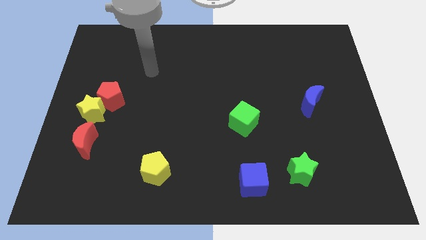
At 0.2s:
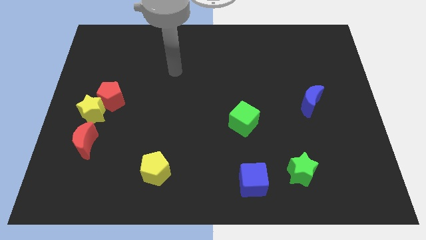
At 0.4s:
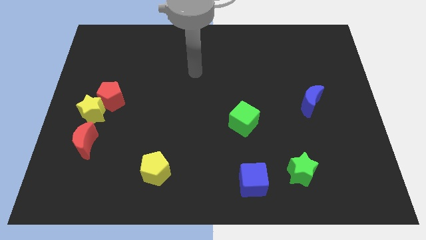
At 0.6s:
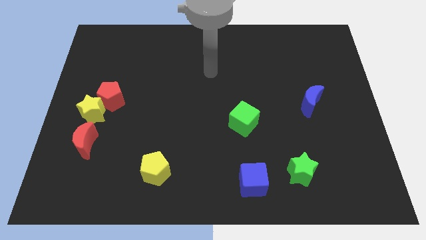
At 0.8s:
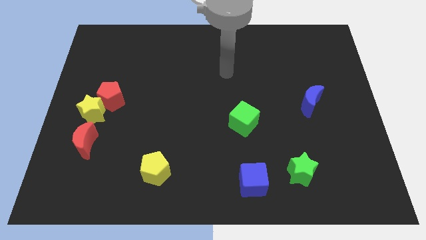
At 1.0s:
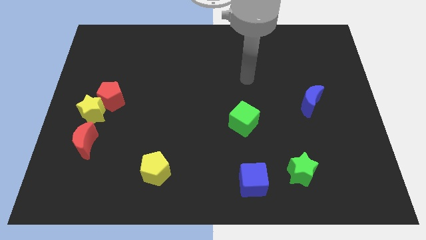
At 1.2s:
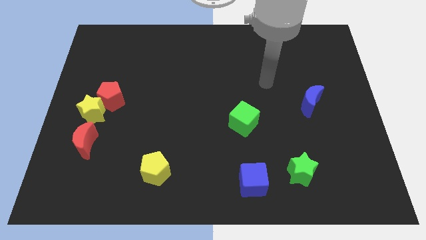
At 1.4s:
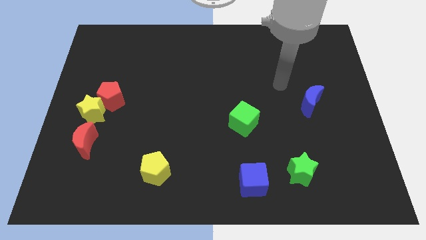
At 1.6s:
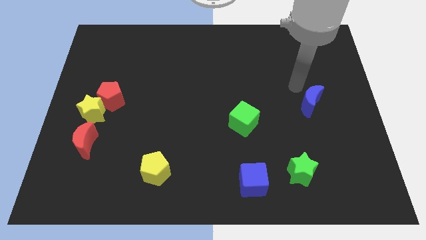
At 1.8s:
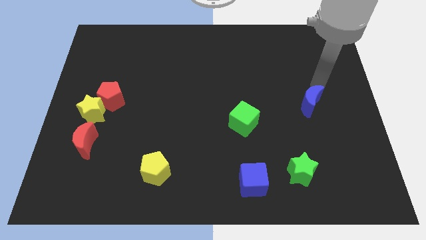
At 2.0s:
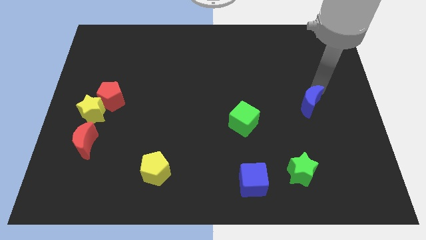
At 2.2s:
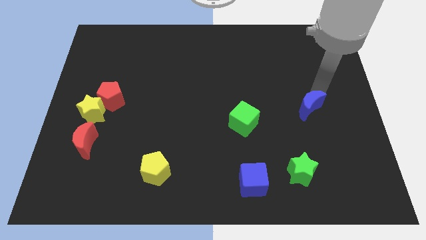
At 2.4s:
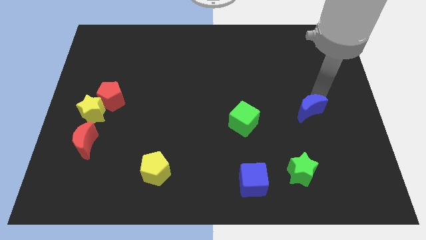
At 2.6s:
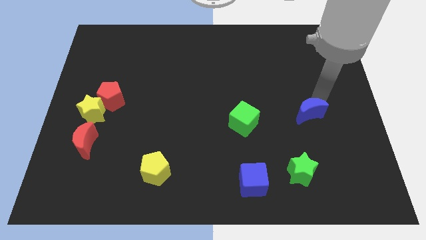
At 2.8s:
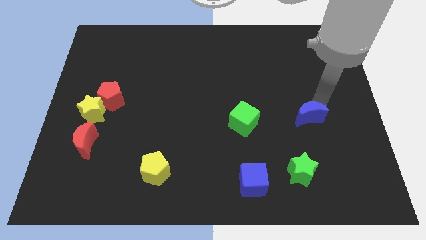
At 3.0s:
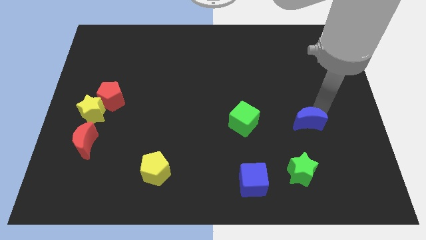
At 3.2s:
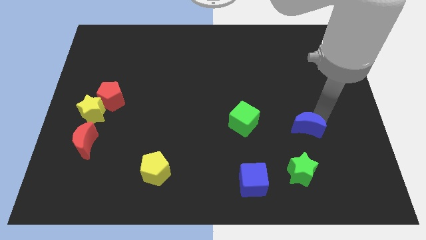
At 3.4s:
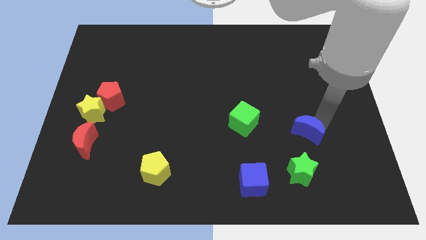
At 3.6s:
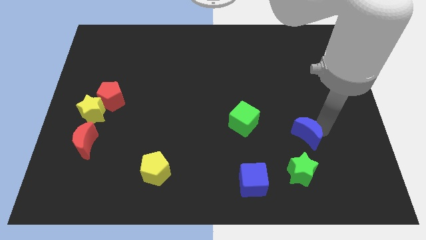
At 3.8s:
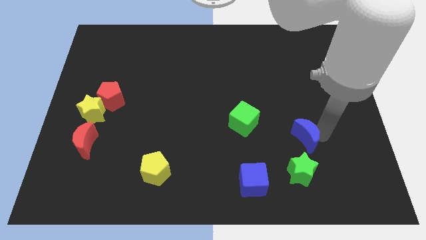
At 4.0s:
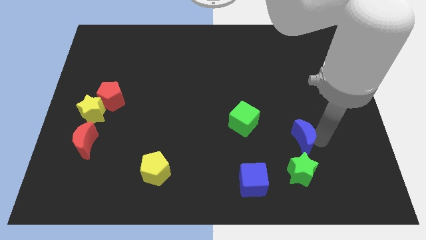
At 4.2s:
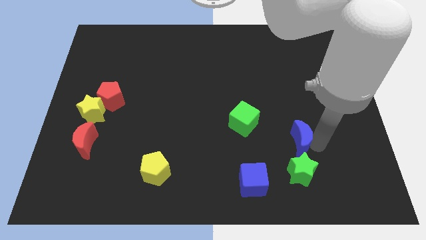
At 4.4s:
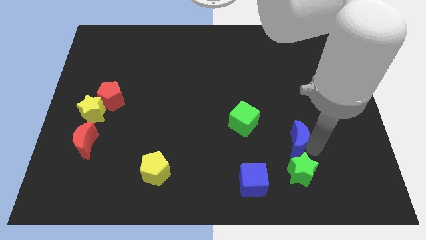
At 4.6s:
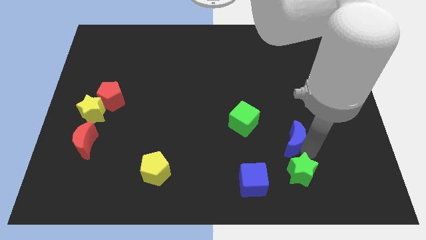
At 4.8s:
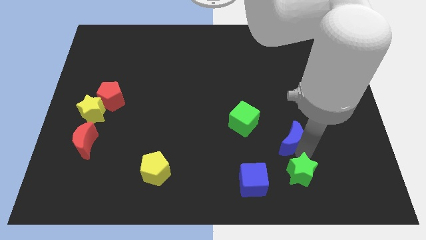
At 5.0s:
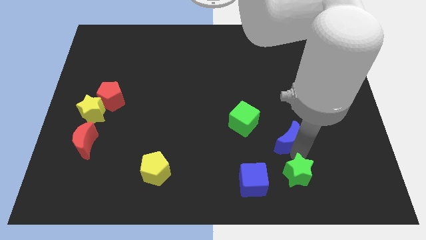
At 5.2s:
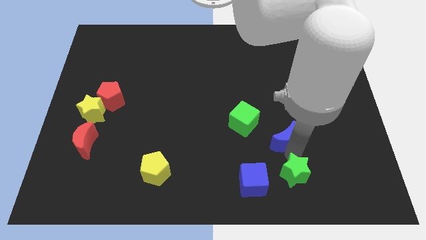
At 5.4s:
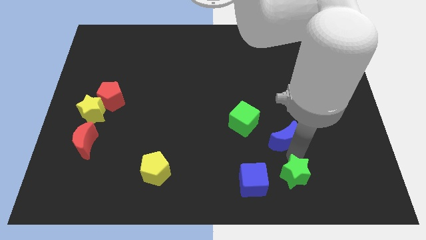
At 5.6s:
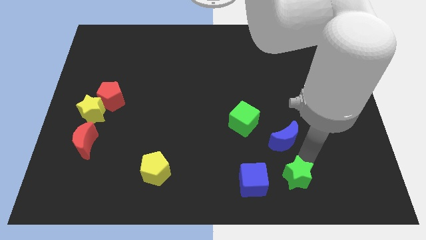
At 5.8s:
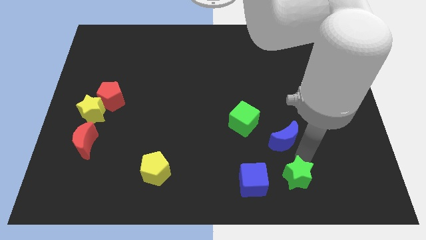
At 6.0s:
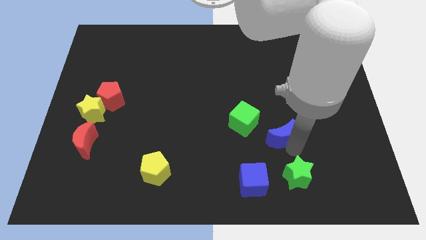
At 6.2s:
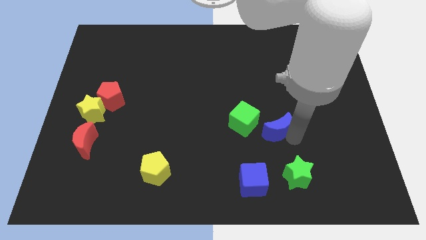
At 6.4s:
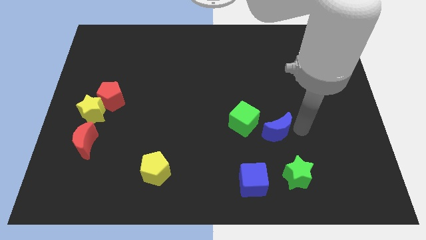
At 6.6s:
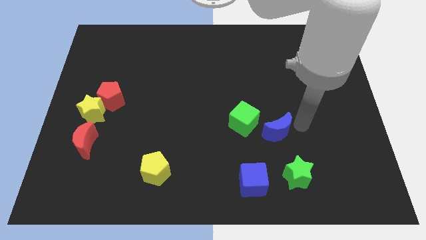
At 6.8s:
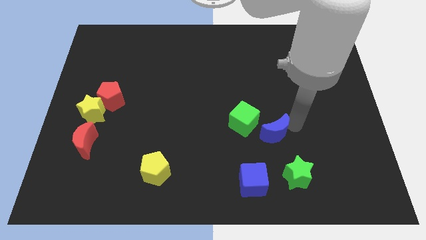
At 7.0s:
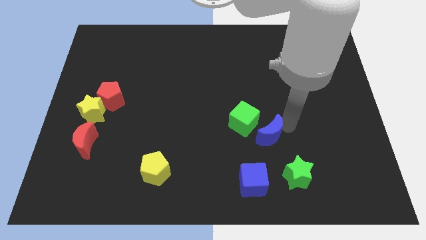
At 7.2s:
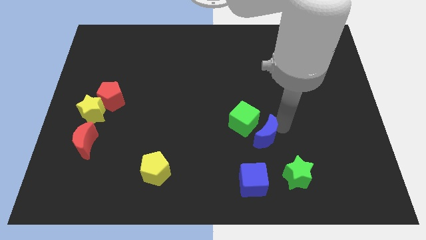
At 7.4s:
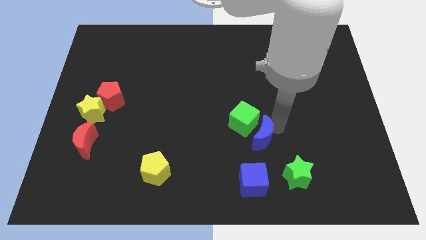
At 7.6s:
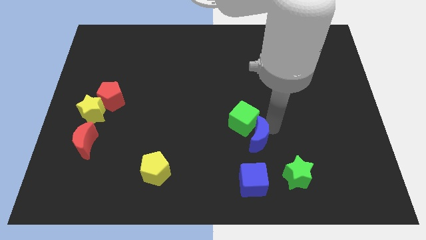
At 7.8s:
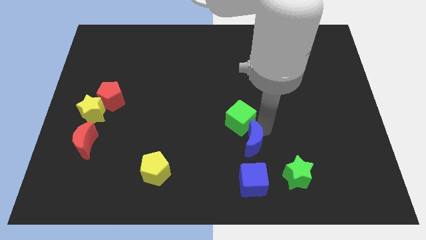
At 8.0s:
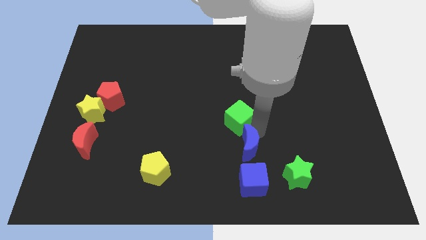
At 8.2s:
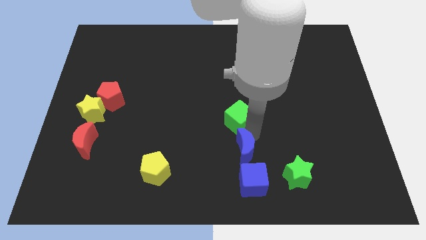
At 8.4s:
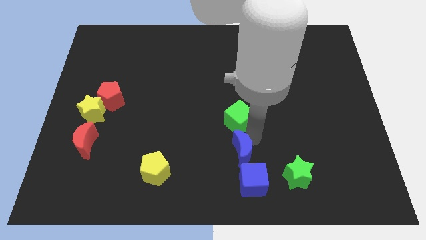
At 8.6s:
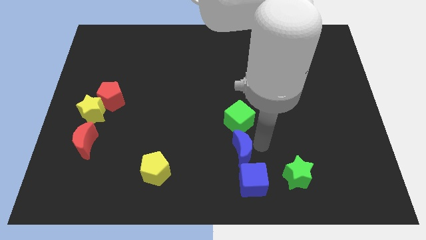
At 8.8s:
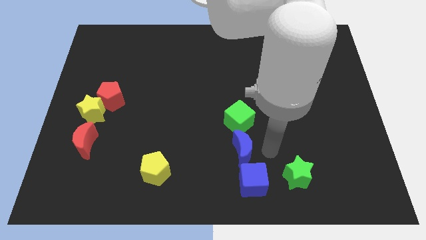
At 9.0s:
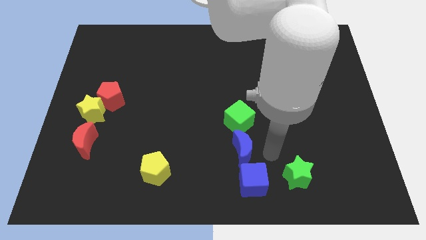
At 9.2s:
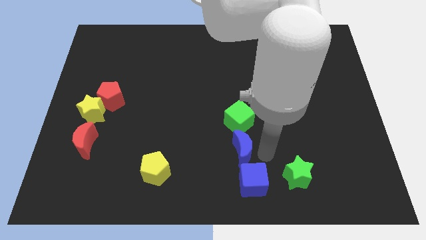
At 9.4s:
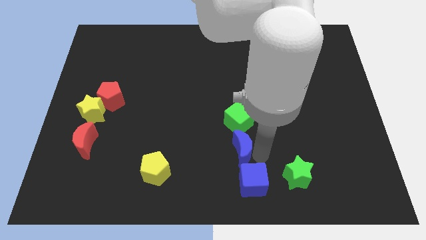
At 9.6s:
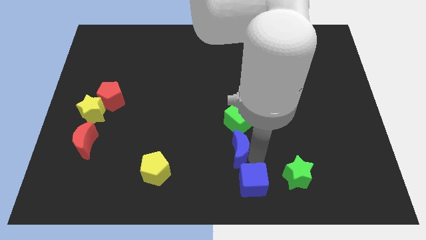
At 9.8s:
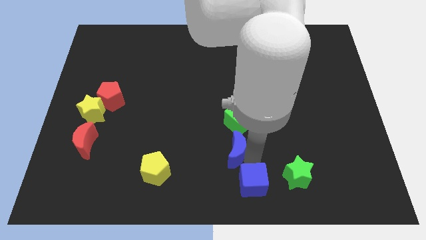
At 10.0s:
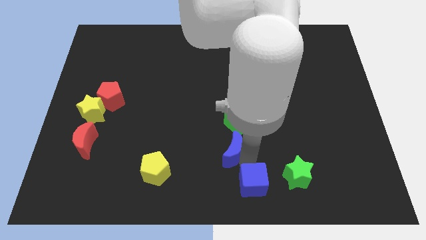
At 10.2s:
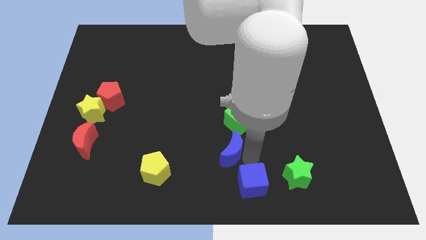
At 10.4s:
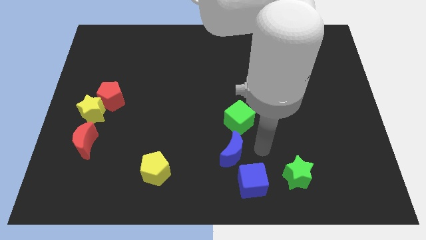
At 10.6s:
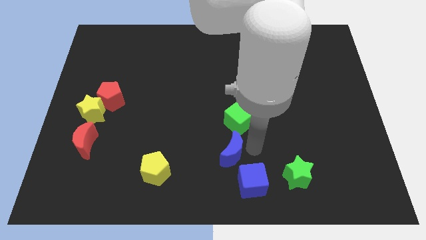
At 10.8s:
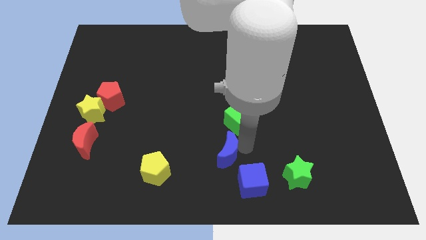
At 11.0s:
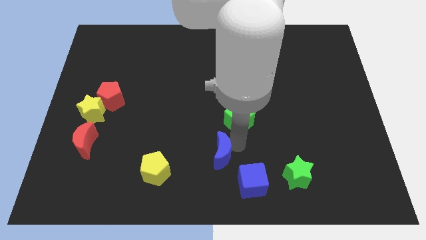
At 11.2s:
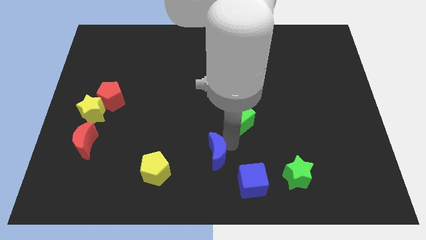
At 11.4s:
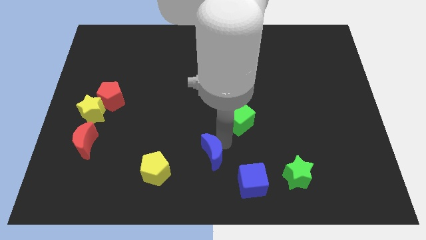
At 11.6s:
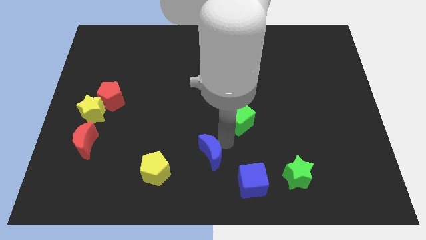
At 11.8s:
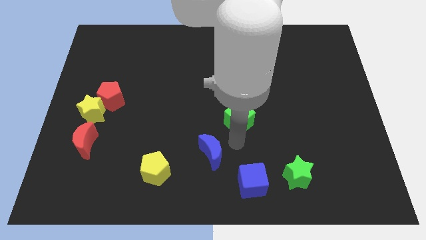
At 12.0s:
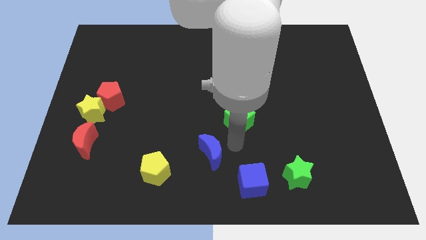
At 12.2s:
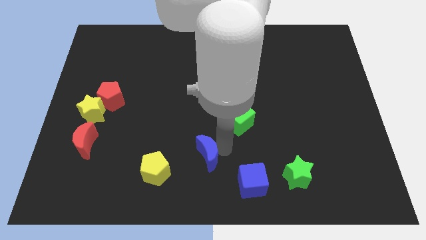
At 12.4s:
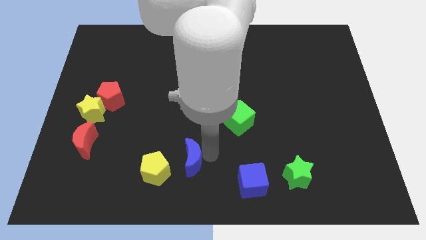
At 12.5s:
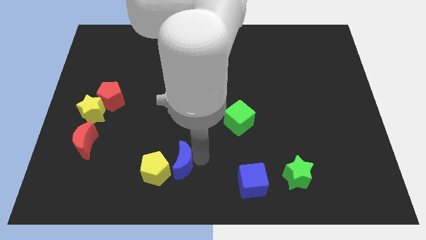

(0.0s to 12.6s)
put the blue moon close to the yellow pentagon

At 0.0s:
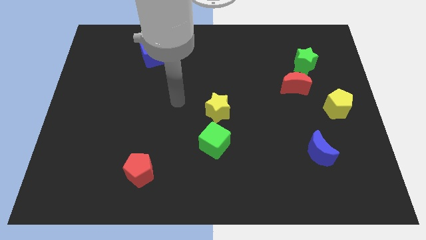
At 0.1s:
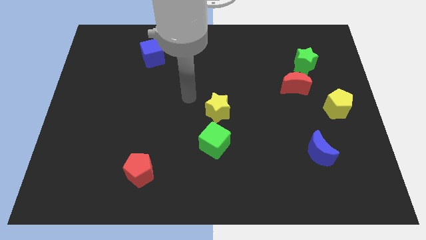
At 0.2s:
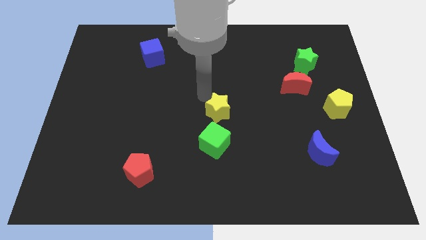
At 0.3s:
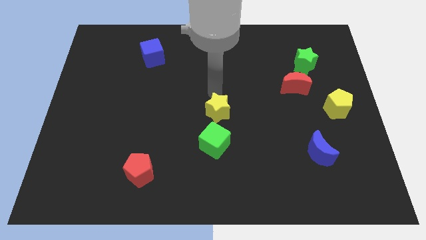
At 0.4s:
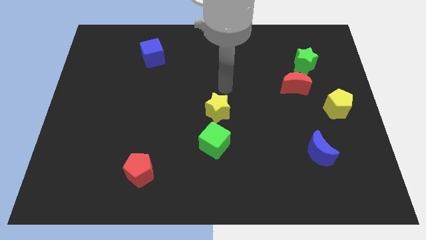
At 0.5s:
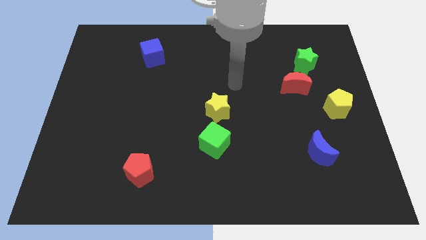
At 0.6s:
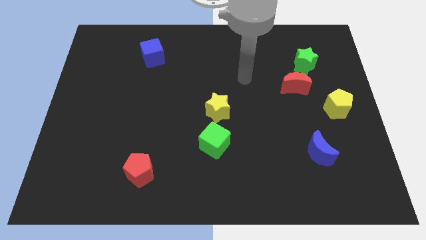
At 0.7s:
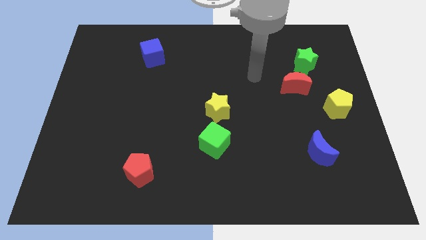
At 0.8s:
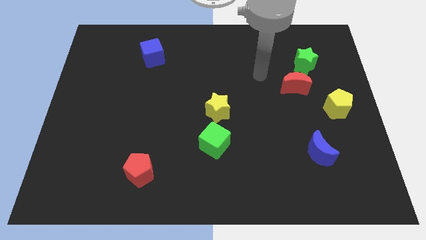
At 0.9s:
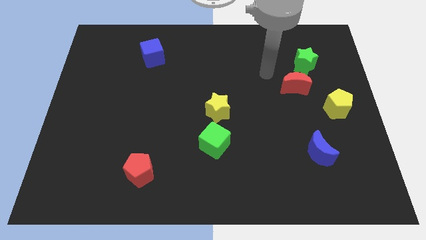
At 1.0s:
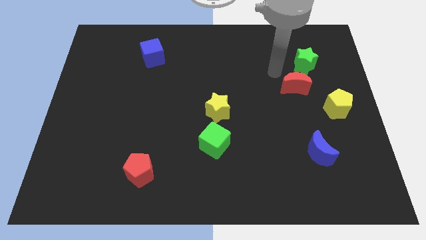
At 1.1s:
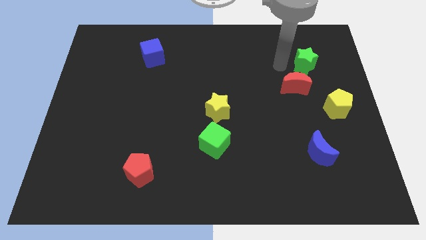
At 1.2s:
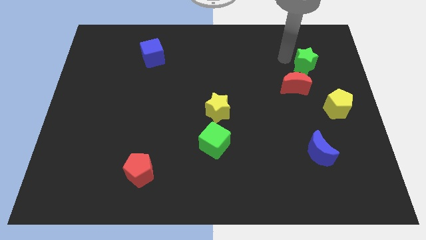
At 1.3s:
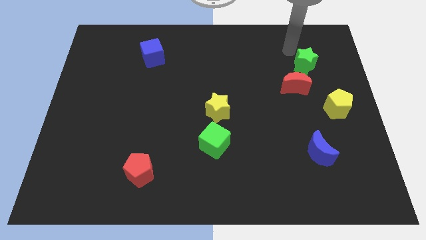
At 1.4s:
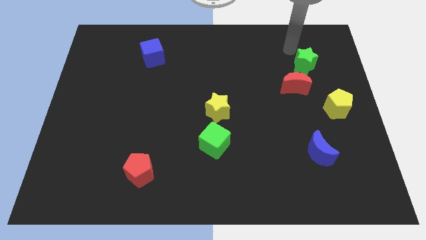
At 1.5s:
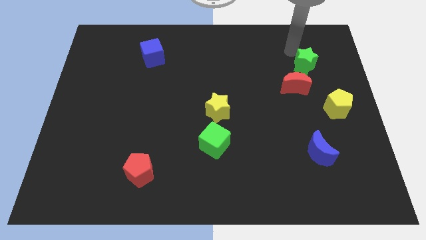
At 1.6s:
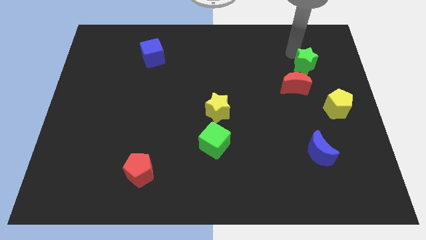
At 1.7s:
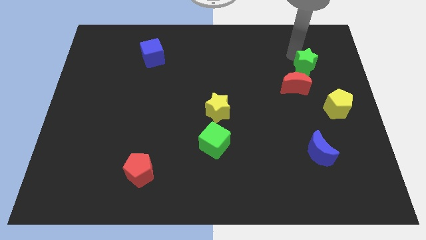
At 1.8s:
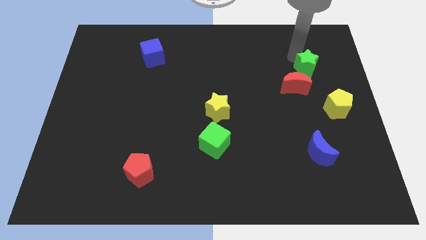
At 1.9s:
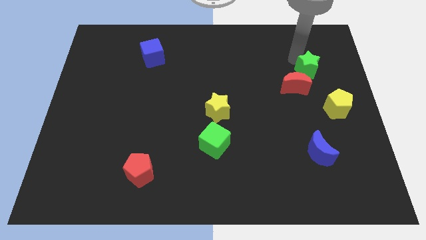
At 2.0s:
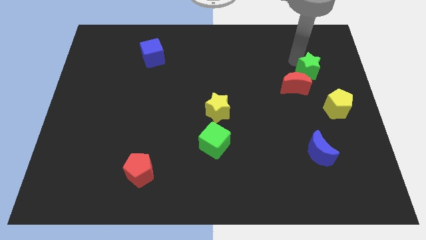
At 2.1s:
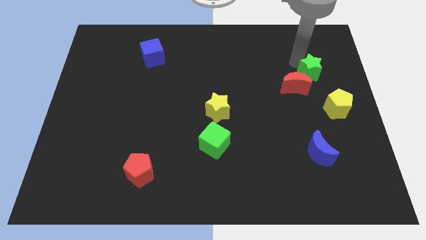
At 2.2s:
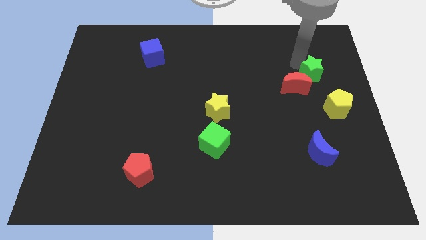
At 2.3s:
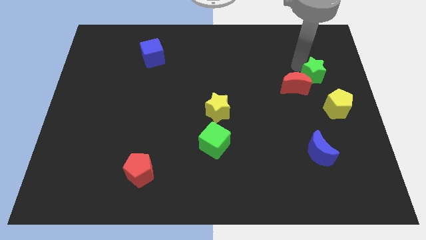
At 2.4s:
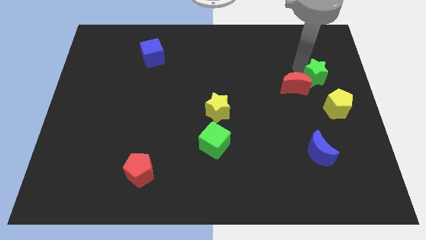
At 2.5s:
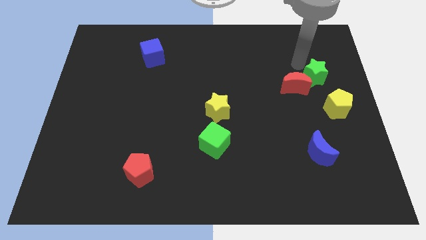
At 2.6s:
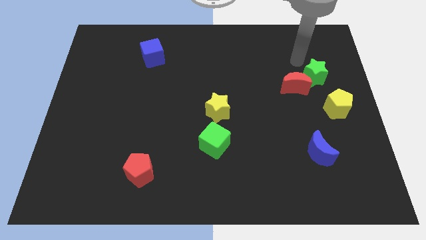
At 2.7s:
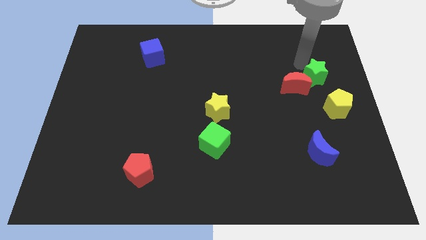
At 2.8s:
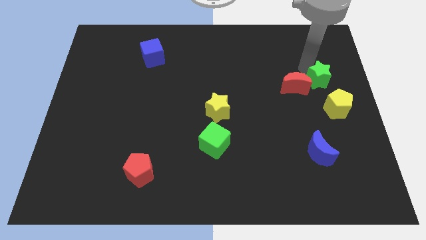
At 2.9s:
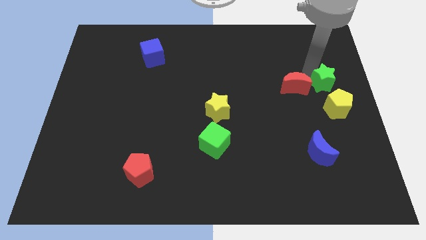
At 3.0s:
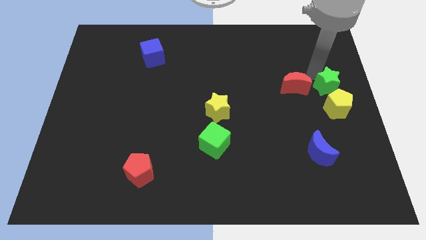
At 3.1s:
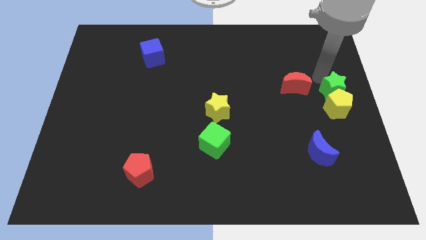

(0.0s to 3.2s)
move the green star towards the yellow pentagon
